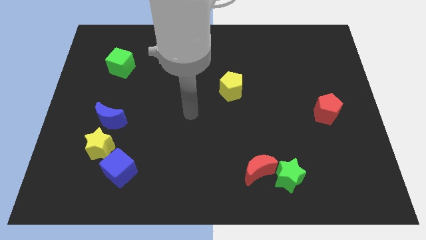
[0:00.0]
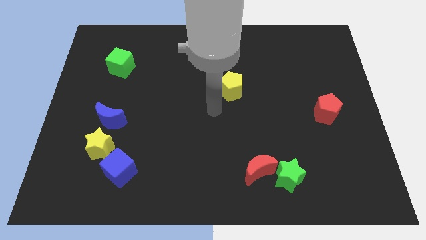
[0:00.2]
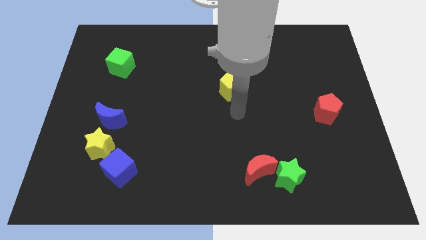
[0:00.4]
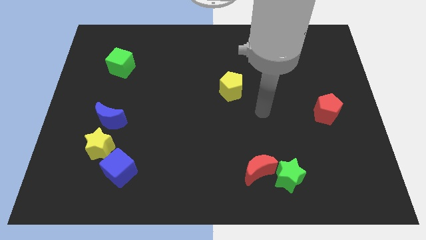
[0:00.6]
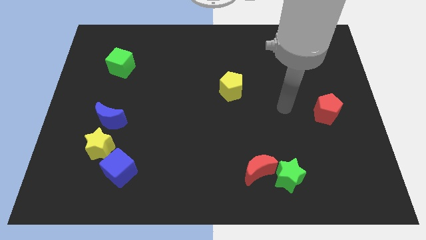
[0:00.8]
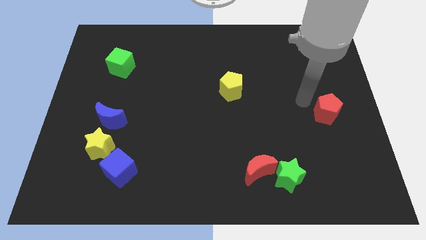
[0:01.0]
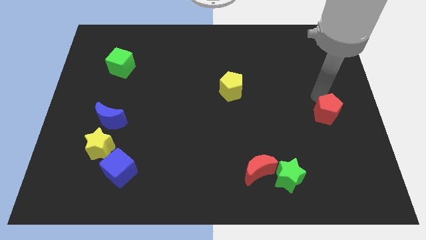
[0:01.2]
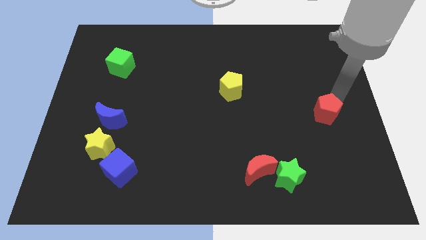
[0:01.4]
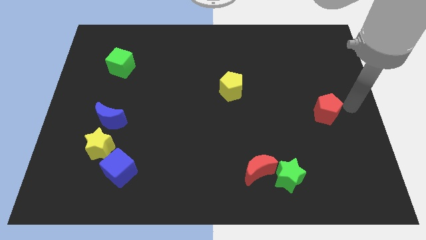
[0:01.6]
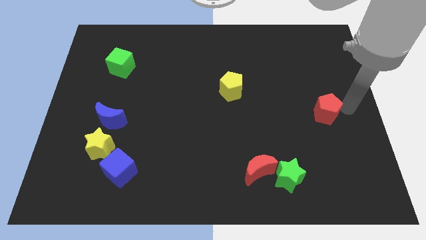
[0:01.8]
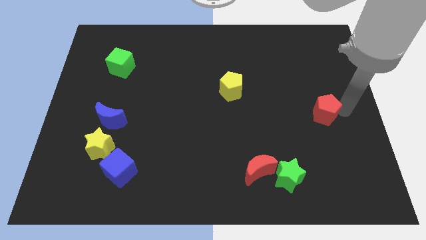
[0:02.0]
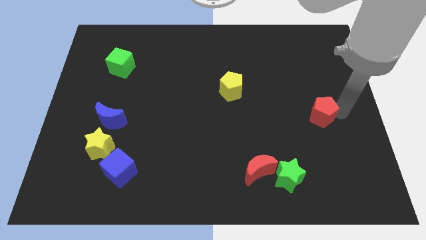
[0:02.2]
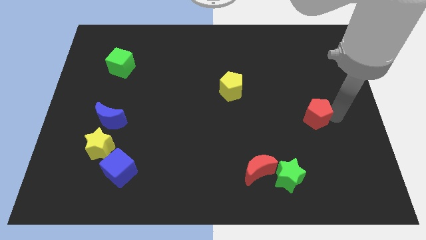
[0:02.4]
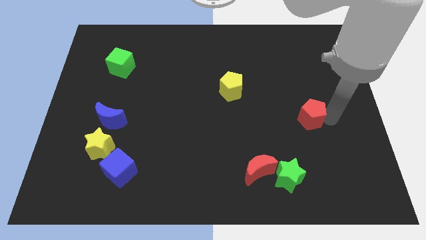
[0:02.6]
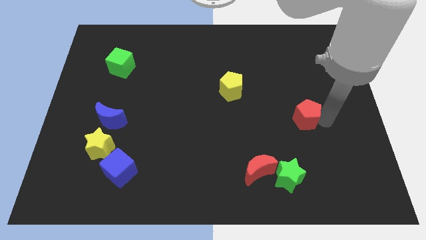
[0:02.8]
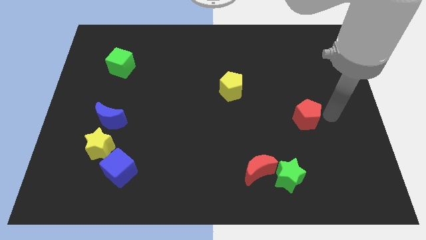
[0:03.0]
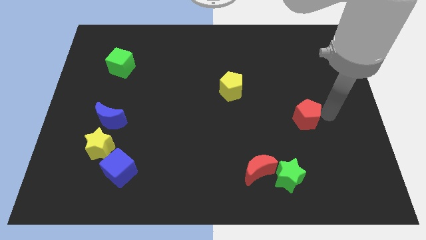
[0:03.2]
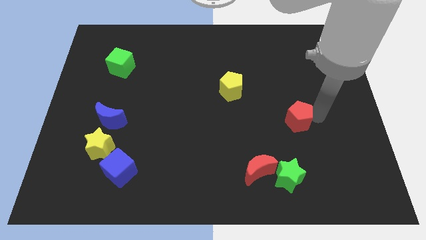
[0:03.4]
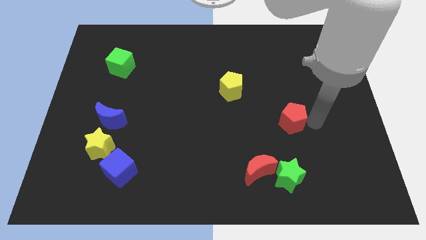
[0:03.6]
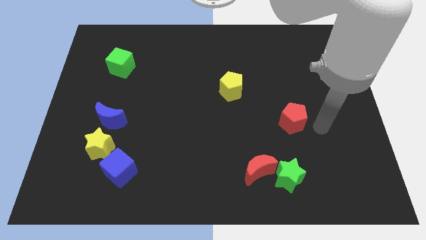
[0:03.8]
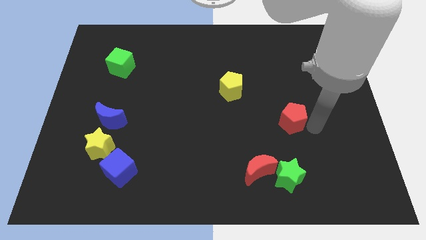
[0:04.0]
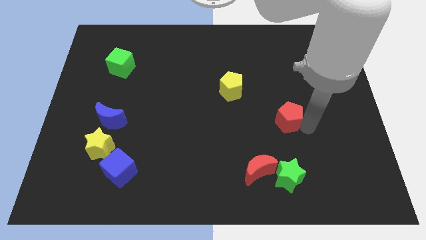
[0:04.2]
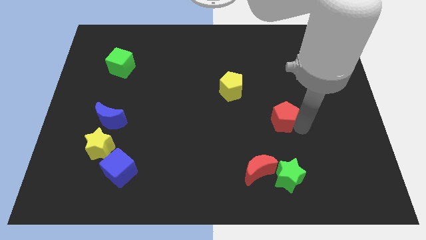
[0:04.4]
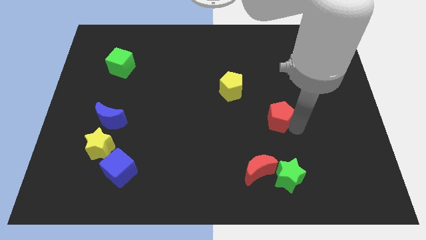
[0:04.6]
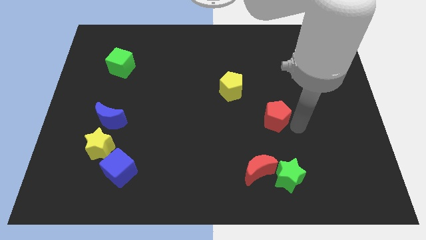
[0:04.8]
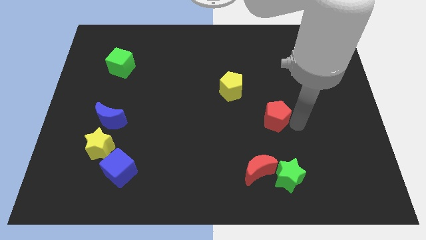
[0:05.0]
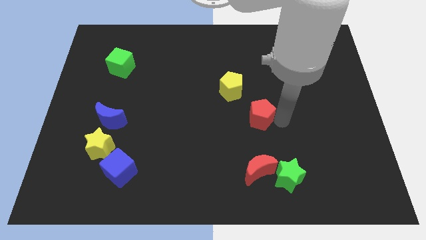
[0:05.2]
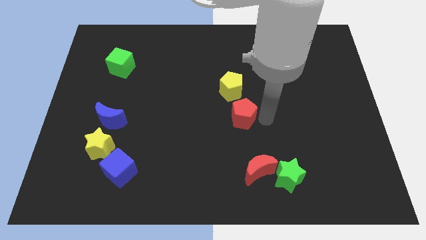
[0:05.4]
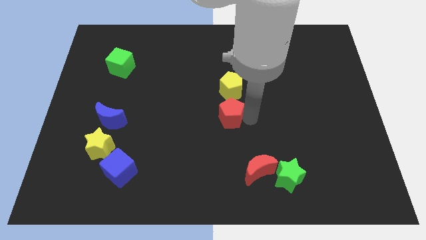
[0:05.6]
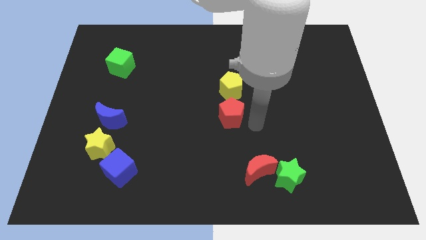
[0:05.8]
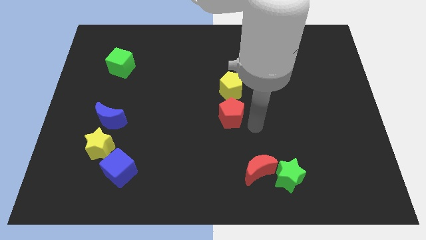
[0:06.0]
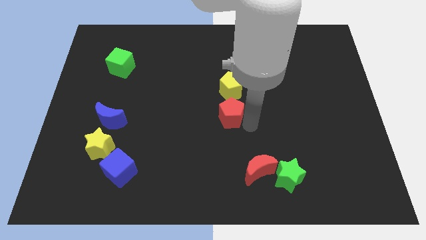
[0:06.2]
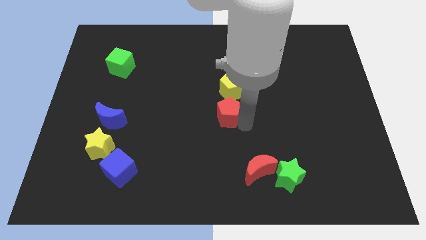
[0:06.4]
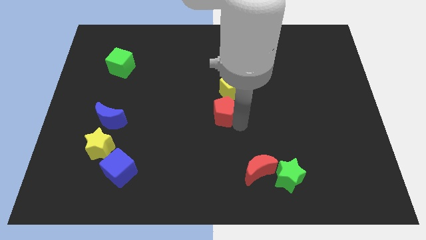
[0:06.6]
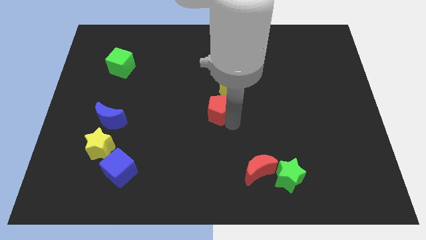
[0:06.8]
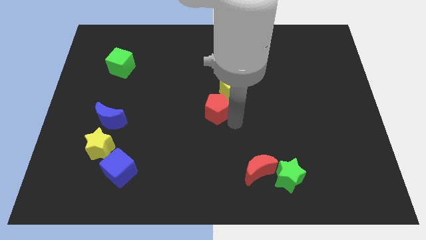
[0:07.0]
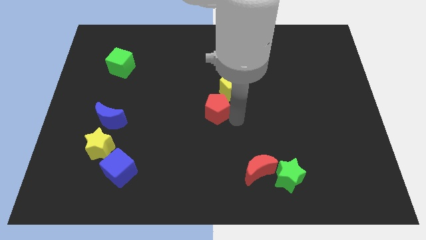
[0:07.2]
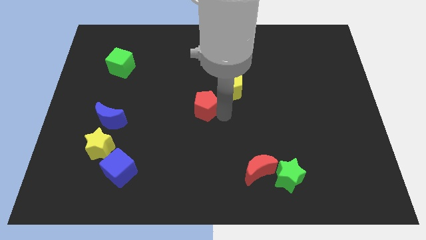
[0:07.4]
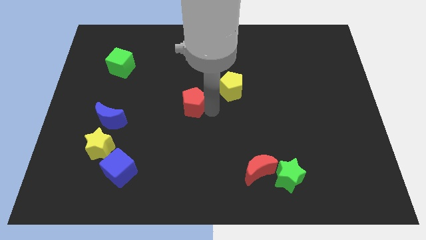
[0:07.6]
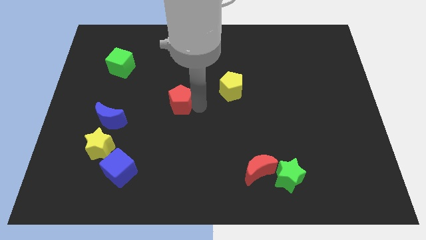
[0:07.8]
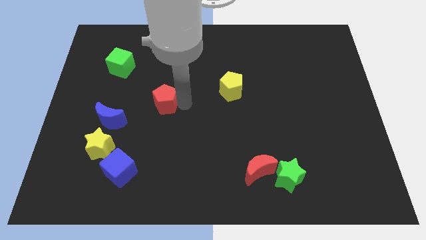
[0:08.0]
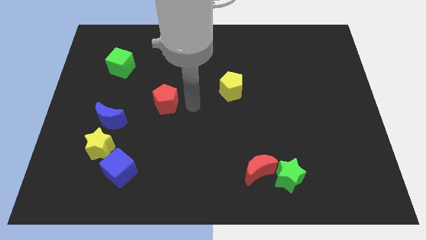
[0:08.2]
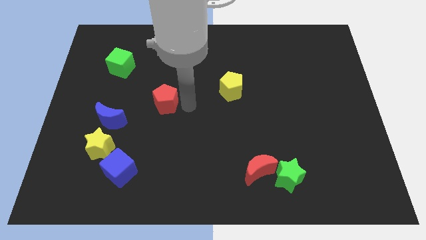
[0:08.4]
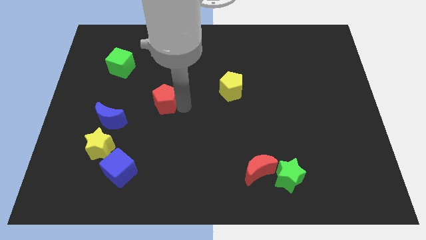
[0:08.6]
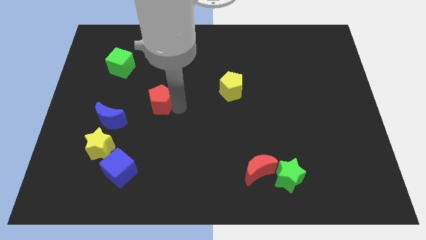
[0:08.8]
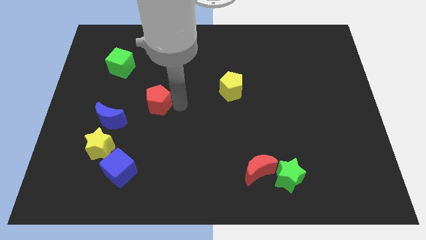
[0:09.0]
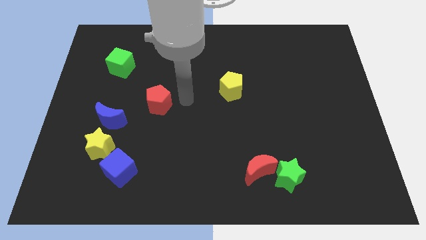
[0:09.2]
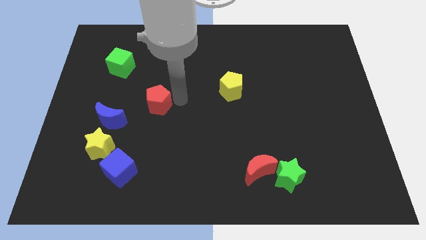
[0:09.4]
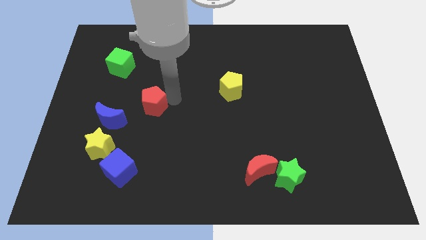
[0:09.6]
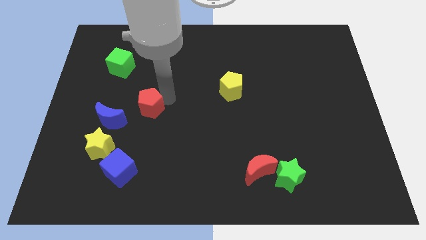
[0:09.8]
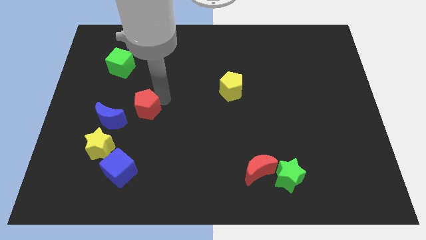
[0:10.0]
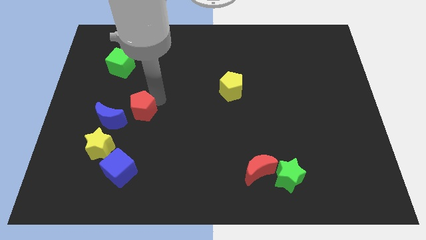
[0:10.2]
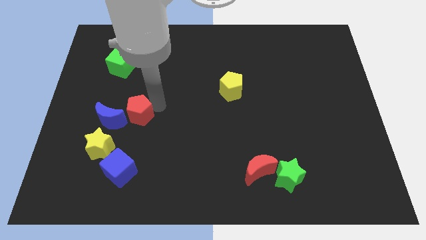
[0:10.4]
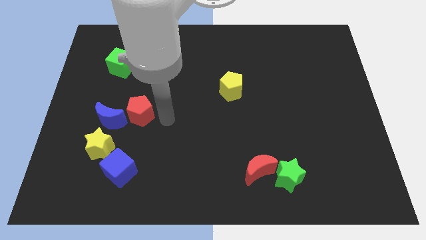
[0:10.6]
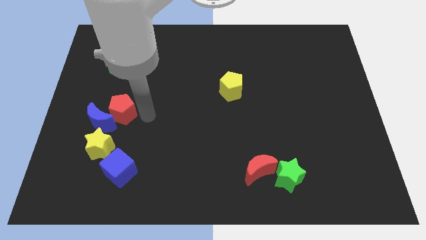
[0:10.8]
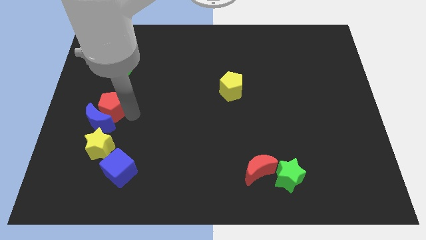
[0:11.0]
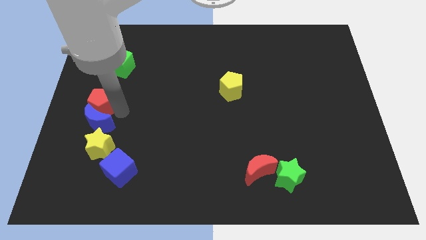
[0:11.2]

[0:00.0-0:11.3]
move the red pentagon to the center left
